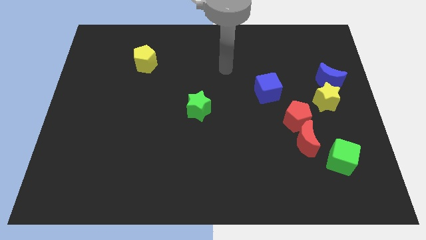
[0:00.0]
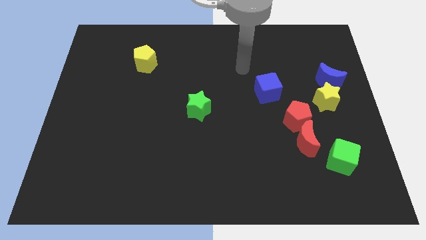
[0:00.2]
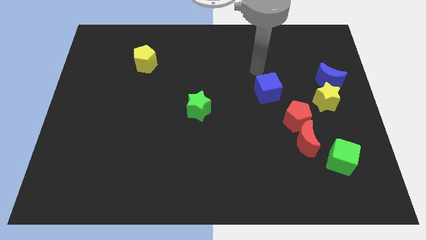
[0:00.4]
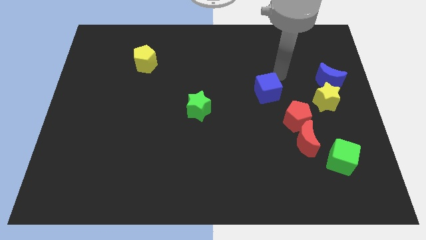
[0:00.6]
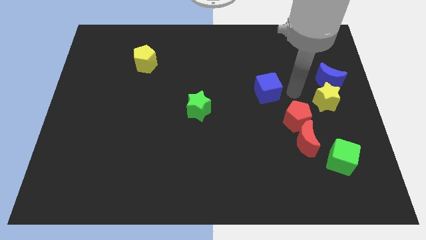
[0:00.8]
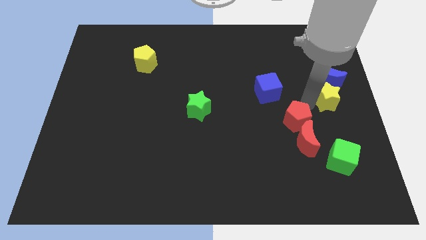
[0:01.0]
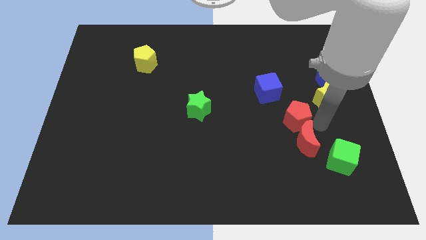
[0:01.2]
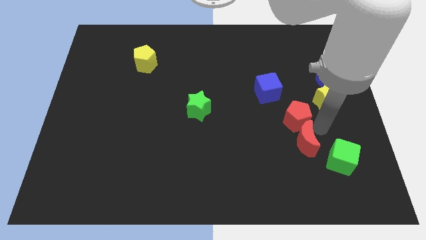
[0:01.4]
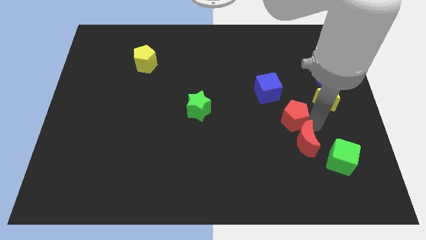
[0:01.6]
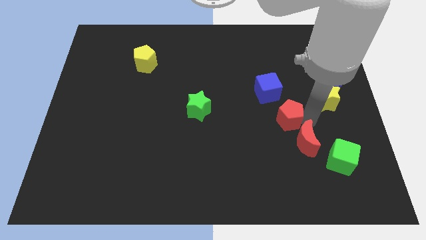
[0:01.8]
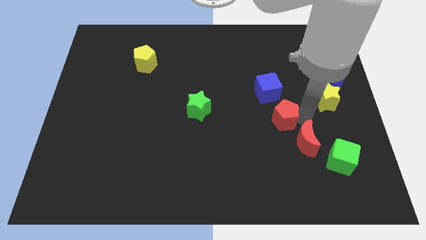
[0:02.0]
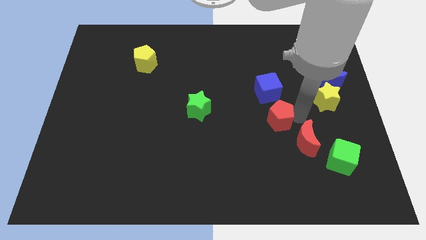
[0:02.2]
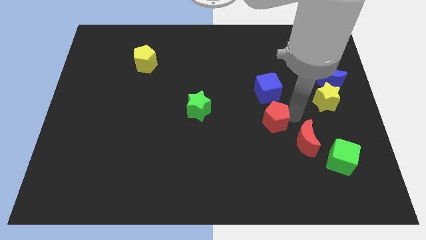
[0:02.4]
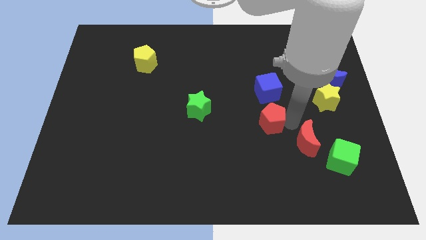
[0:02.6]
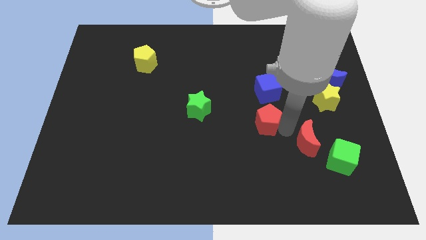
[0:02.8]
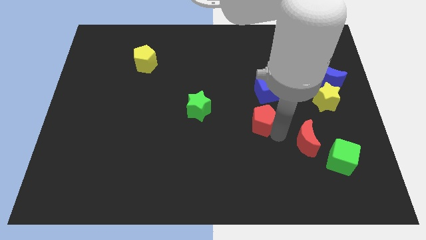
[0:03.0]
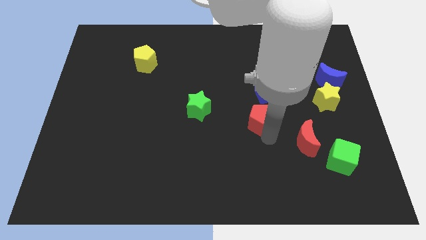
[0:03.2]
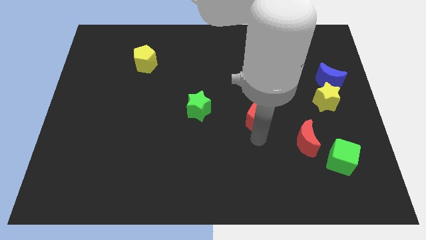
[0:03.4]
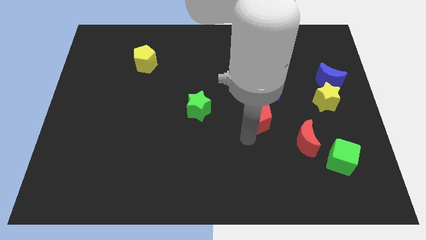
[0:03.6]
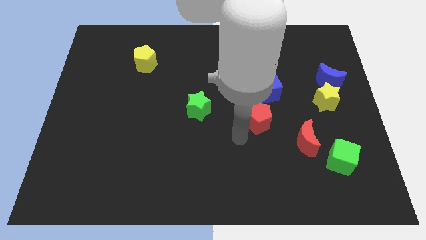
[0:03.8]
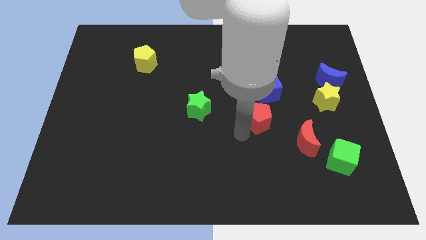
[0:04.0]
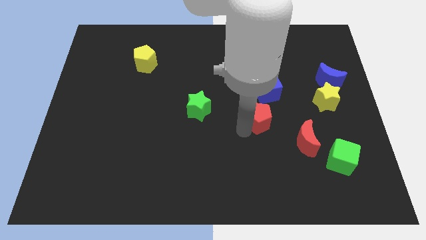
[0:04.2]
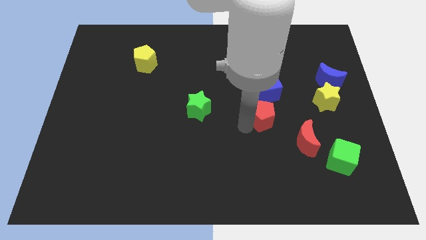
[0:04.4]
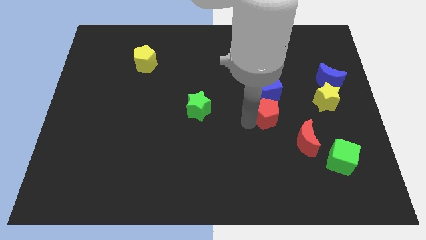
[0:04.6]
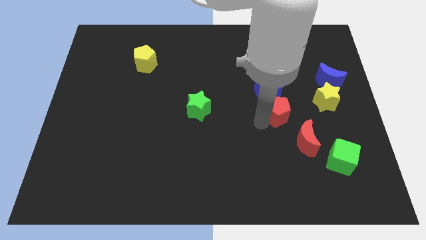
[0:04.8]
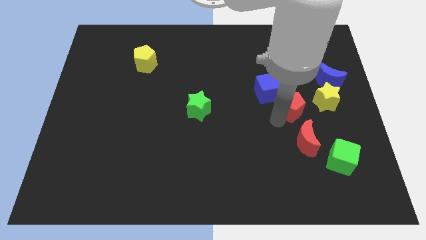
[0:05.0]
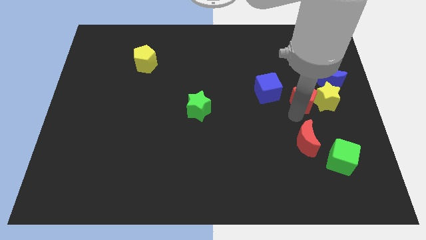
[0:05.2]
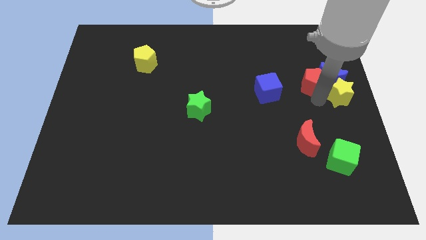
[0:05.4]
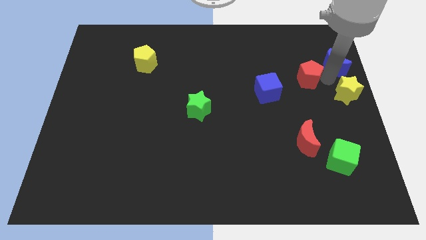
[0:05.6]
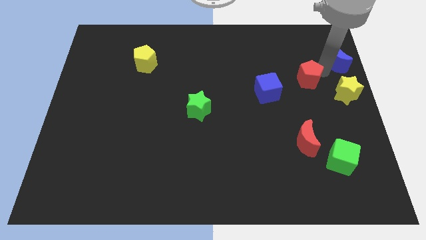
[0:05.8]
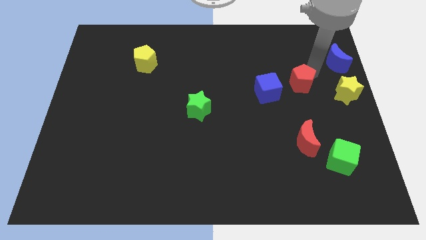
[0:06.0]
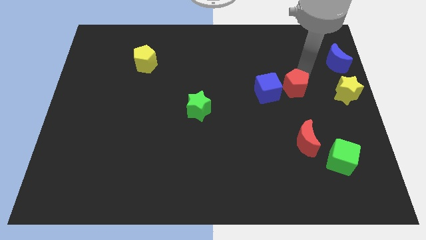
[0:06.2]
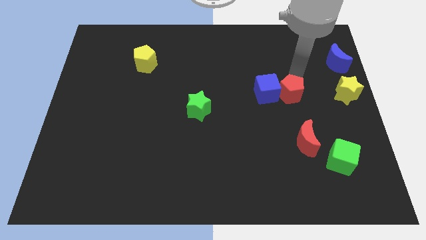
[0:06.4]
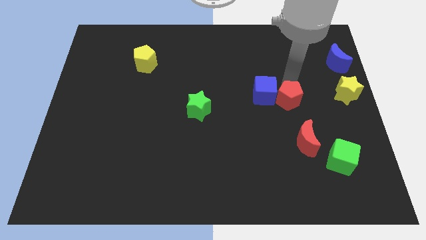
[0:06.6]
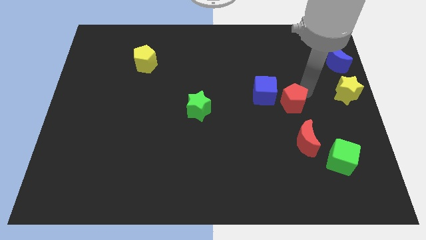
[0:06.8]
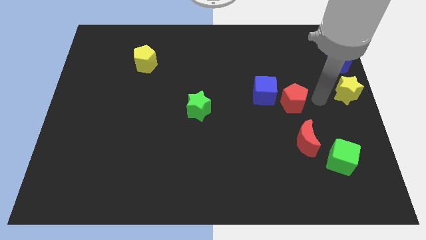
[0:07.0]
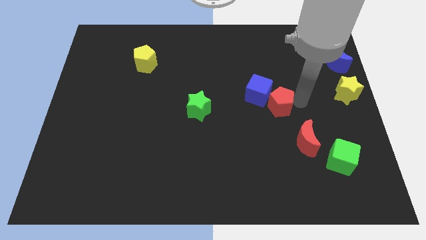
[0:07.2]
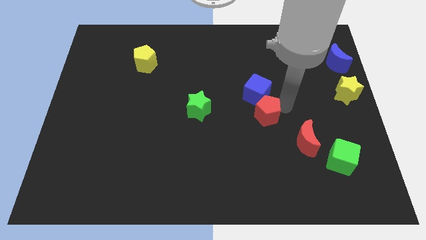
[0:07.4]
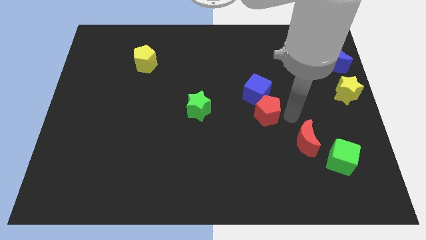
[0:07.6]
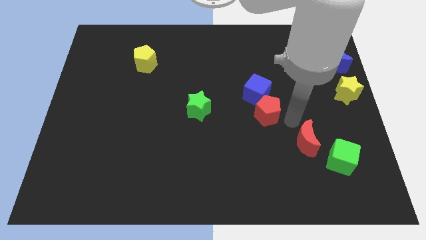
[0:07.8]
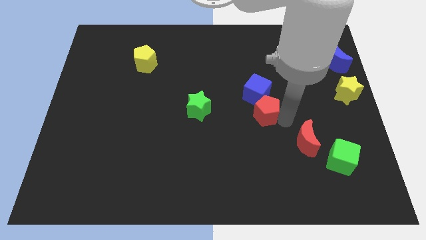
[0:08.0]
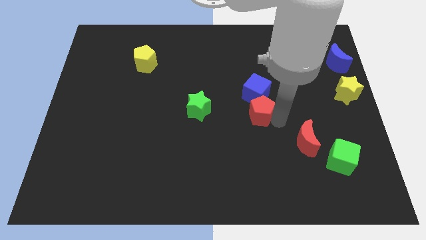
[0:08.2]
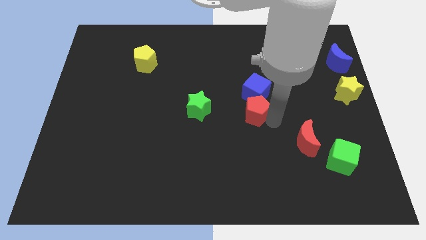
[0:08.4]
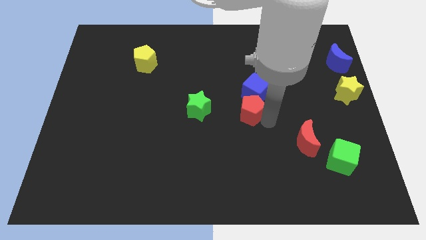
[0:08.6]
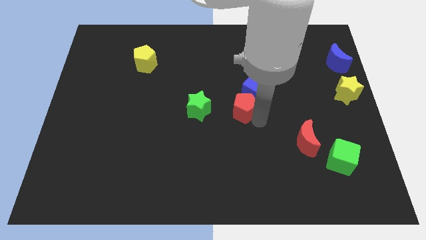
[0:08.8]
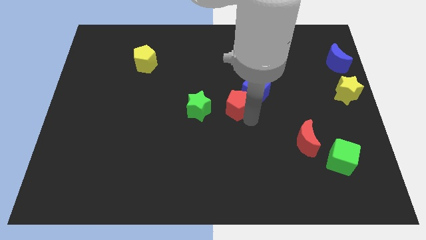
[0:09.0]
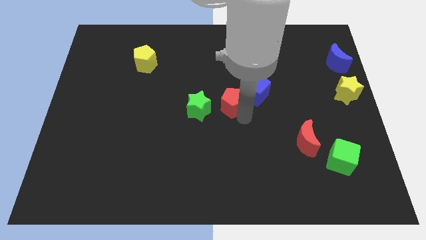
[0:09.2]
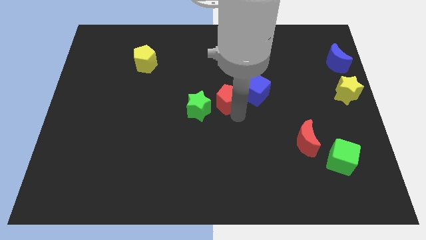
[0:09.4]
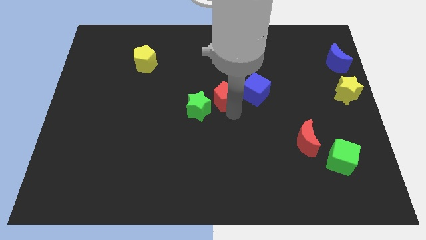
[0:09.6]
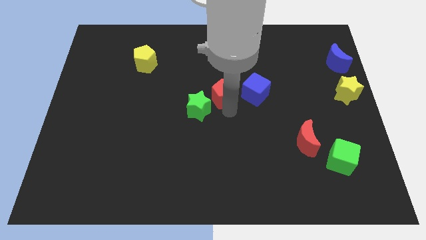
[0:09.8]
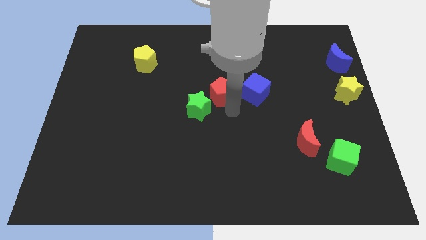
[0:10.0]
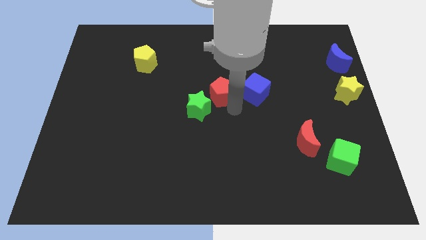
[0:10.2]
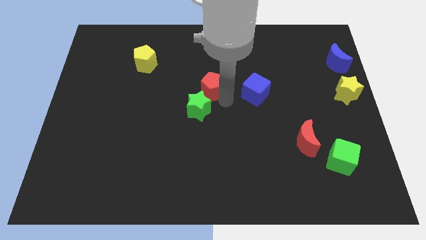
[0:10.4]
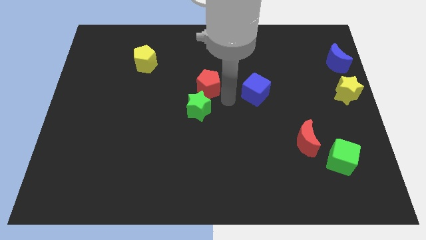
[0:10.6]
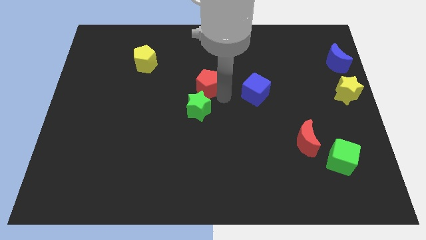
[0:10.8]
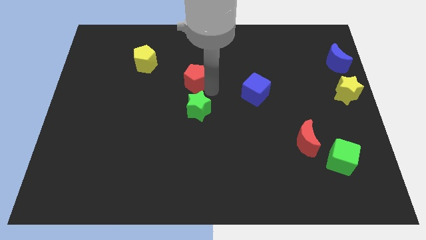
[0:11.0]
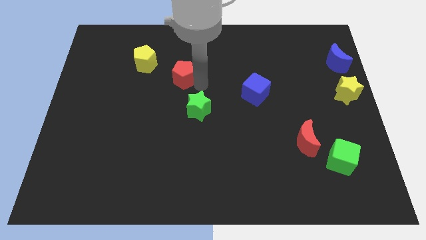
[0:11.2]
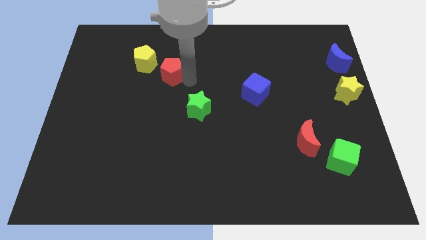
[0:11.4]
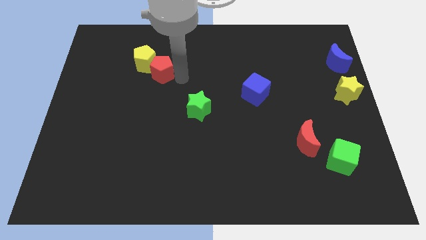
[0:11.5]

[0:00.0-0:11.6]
put the red pentagon to the yellow pentagon

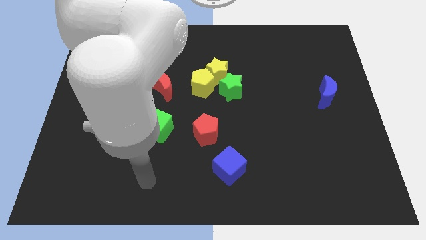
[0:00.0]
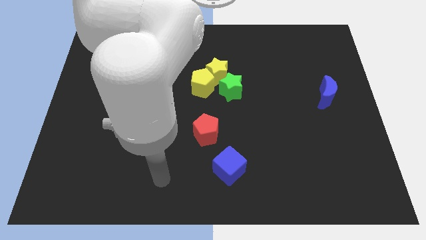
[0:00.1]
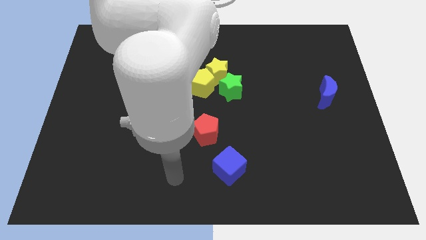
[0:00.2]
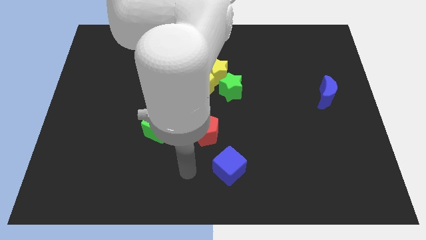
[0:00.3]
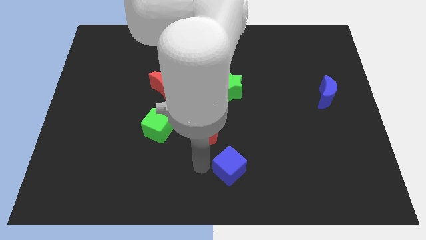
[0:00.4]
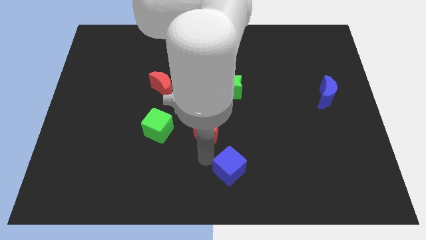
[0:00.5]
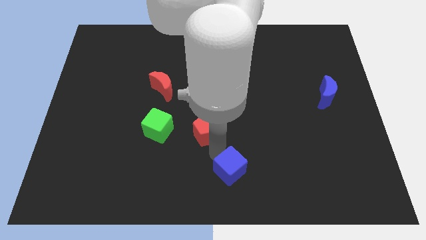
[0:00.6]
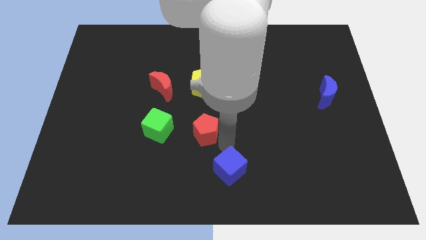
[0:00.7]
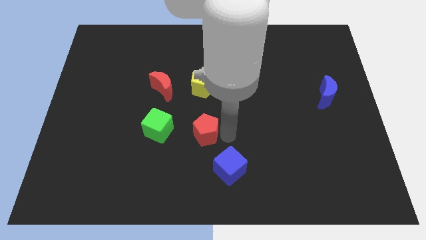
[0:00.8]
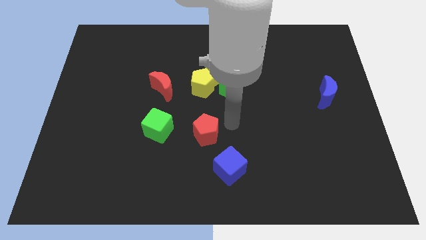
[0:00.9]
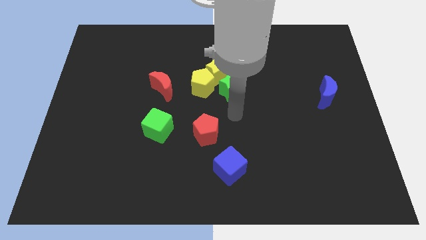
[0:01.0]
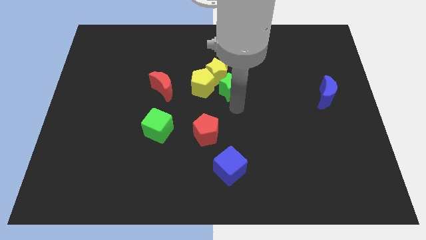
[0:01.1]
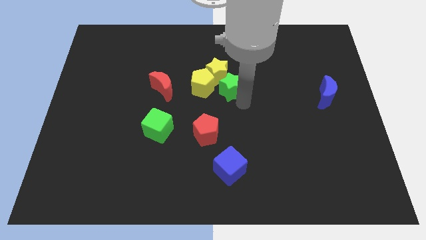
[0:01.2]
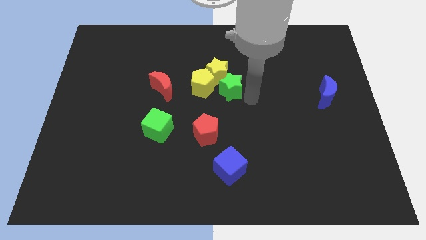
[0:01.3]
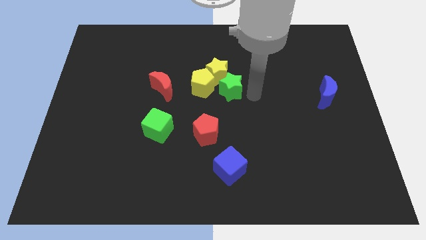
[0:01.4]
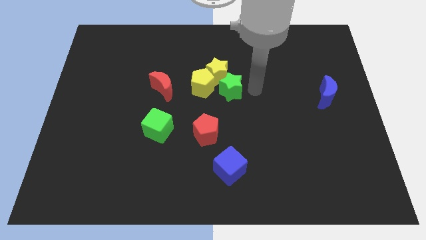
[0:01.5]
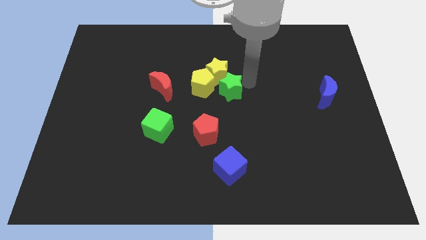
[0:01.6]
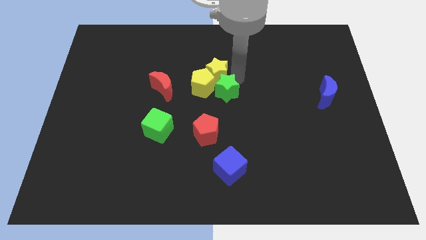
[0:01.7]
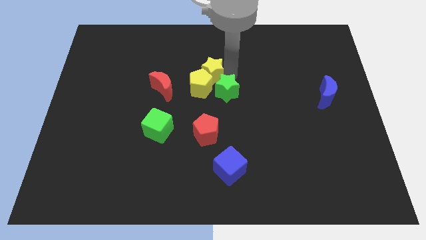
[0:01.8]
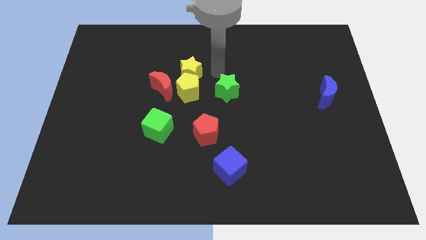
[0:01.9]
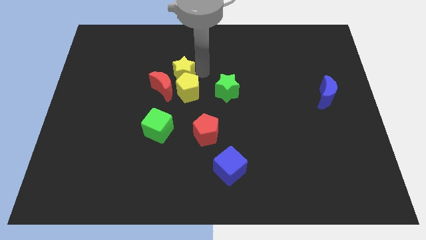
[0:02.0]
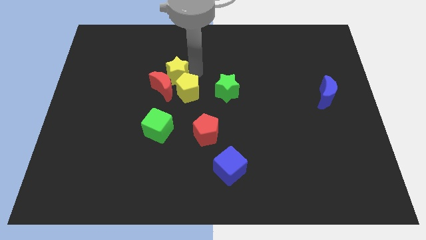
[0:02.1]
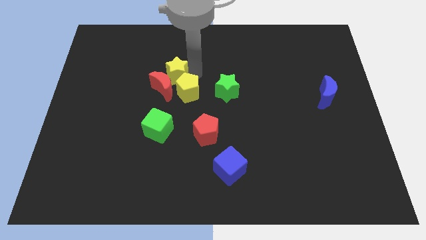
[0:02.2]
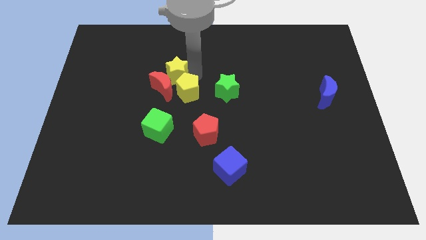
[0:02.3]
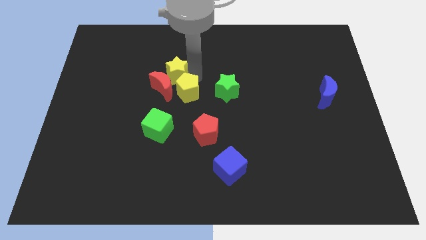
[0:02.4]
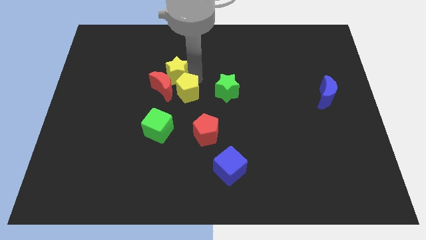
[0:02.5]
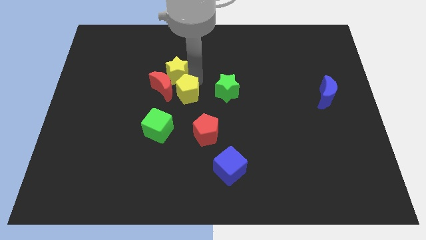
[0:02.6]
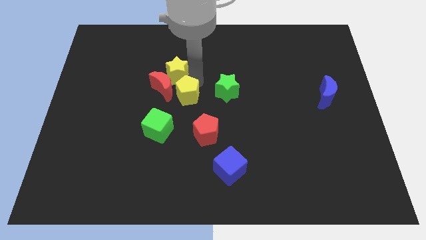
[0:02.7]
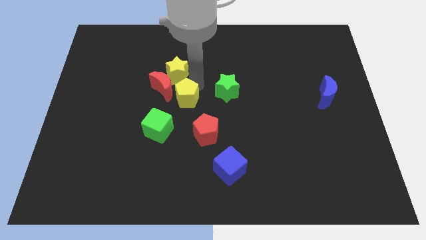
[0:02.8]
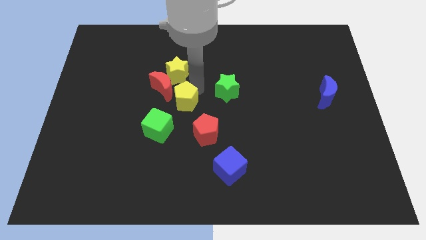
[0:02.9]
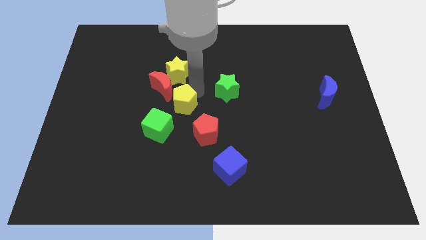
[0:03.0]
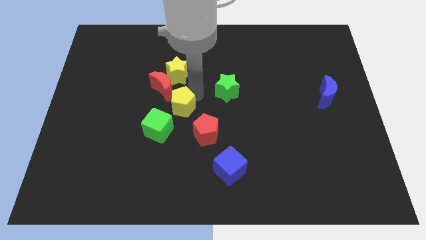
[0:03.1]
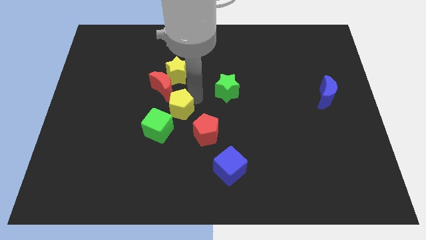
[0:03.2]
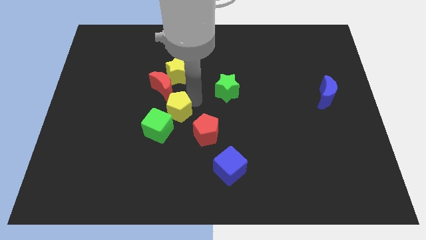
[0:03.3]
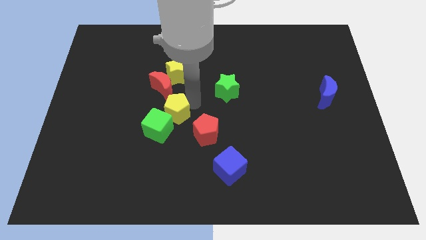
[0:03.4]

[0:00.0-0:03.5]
put the yellow pentagon to the green cube
